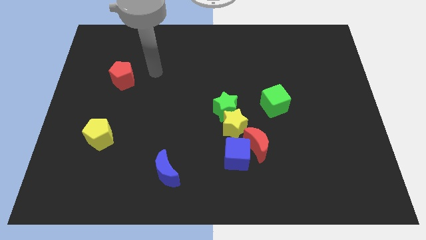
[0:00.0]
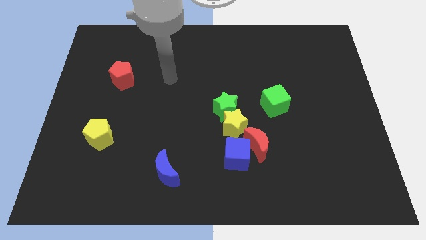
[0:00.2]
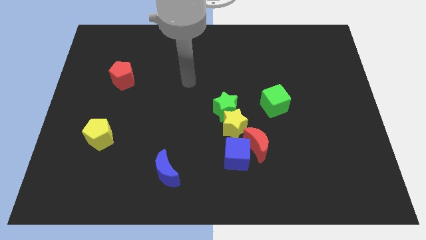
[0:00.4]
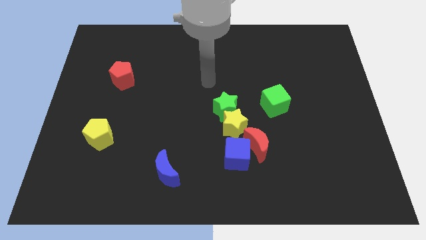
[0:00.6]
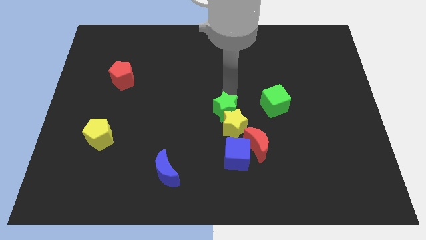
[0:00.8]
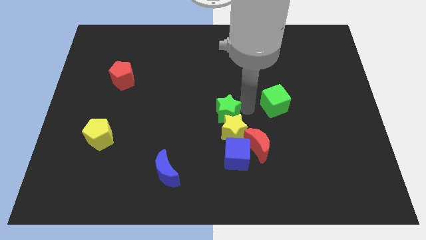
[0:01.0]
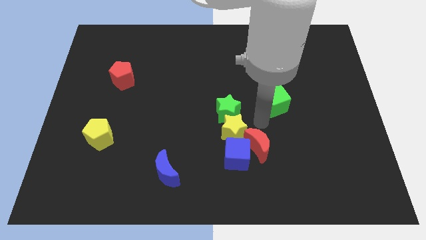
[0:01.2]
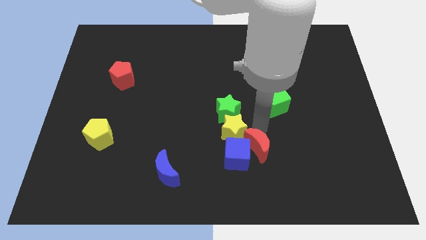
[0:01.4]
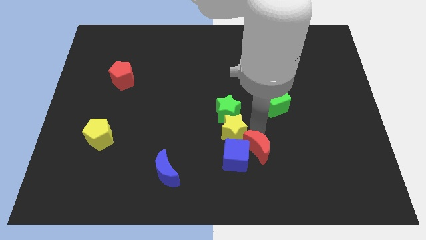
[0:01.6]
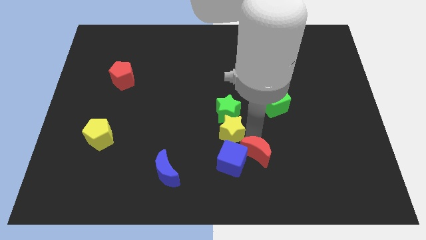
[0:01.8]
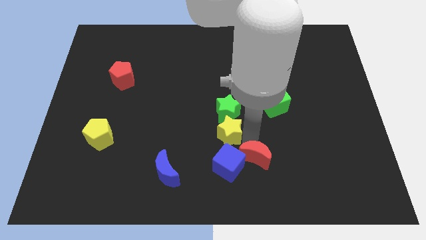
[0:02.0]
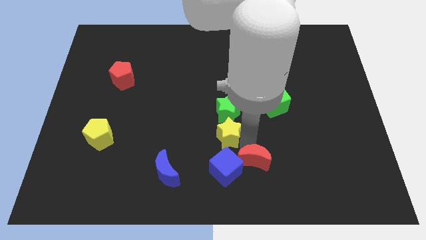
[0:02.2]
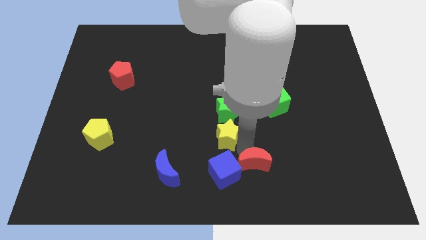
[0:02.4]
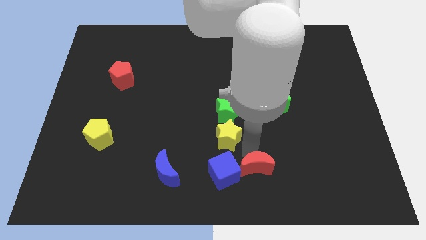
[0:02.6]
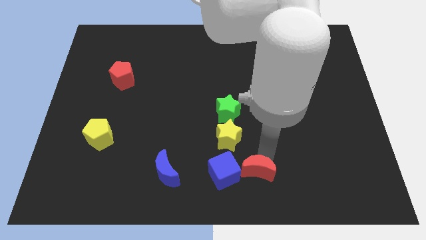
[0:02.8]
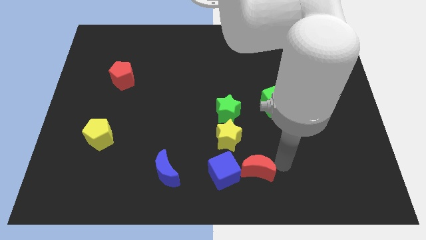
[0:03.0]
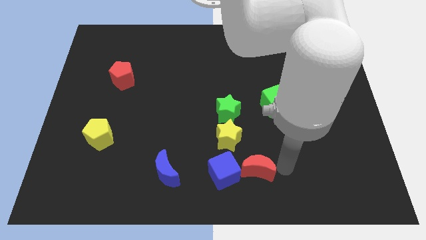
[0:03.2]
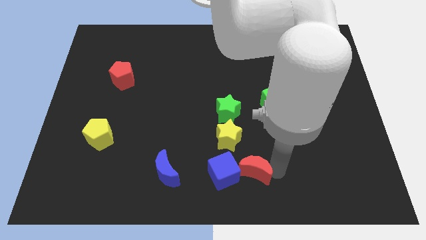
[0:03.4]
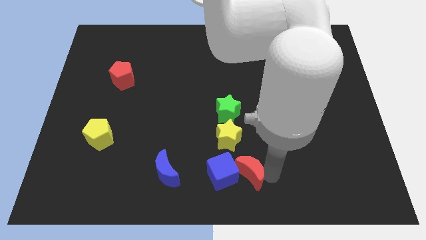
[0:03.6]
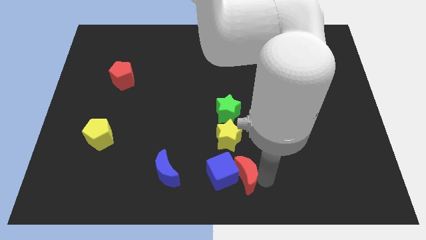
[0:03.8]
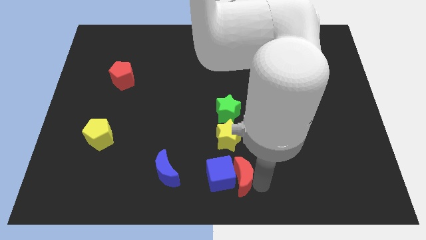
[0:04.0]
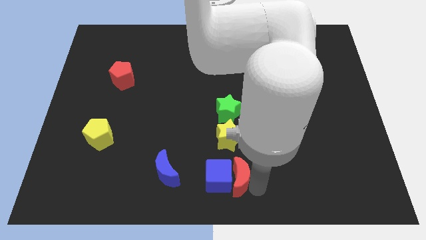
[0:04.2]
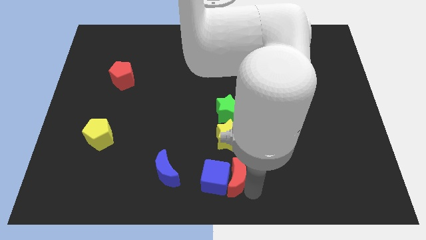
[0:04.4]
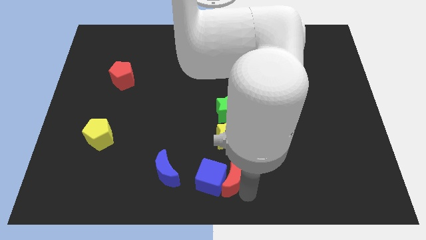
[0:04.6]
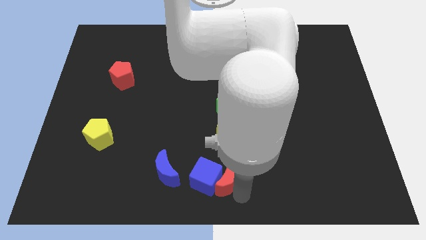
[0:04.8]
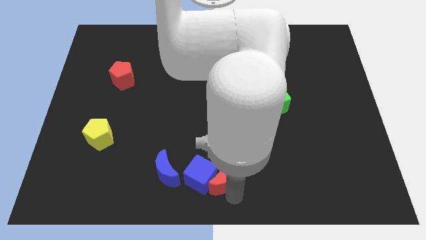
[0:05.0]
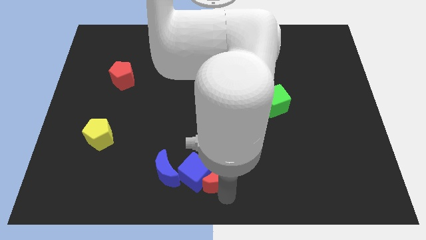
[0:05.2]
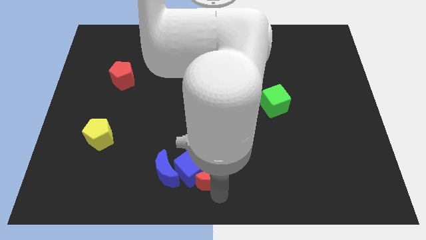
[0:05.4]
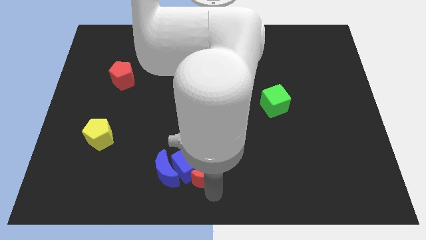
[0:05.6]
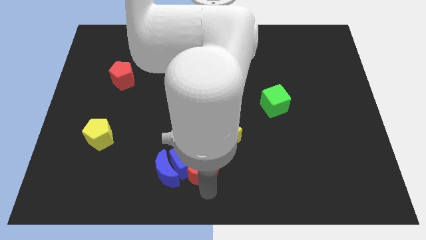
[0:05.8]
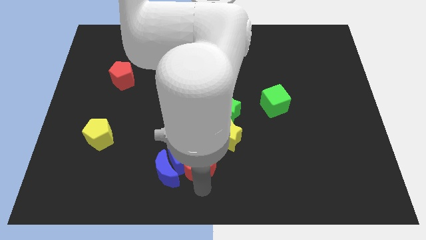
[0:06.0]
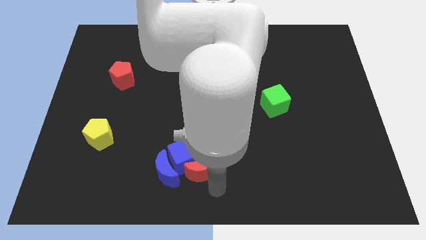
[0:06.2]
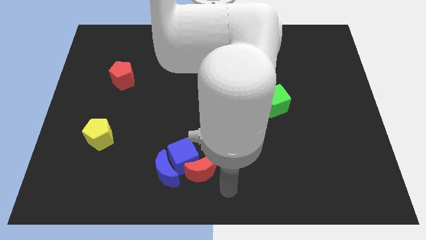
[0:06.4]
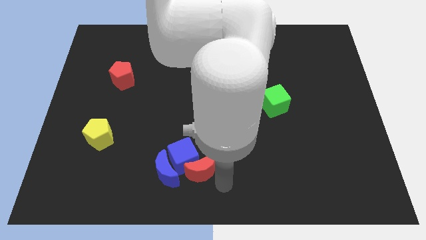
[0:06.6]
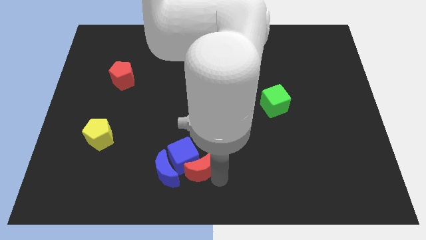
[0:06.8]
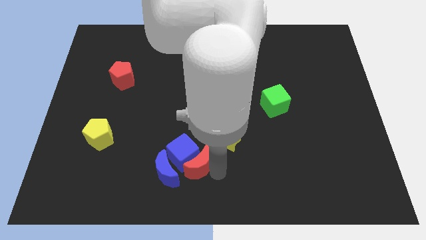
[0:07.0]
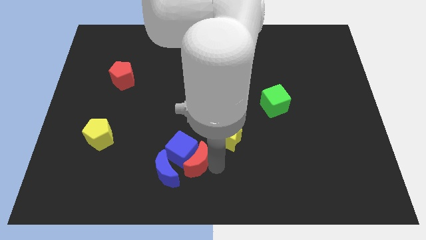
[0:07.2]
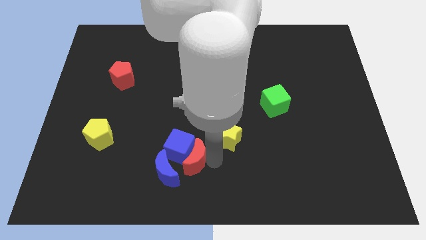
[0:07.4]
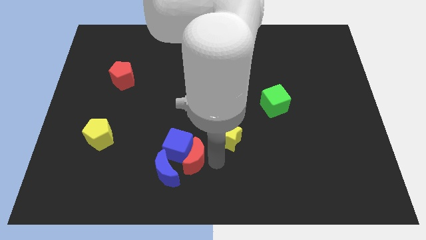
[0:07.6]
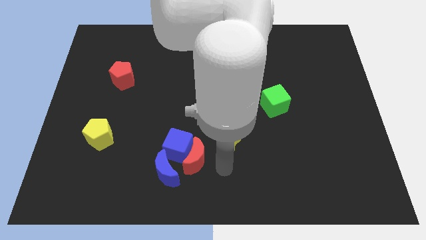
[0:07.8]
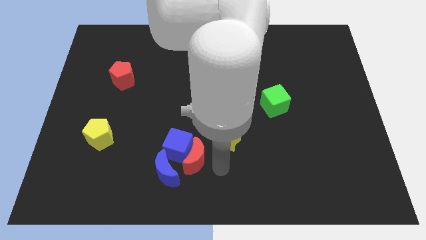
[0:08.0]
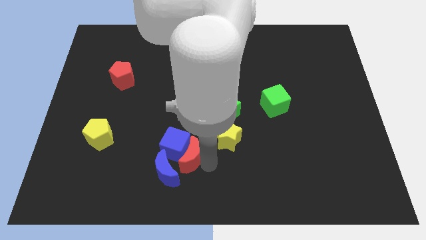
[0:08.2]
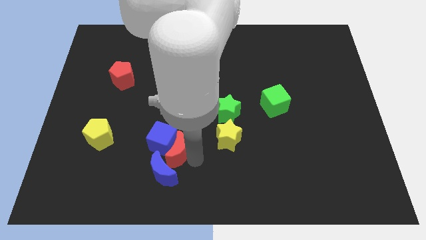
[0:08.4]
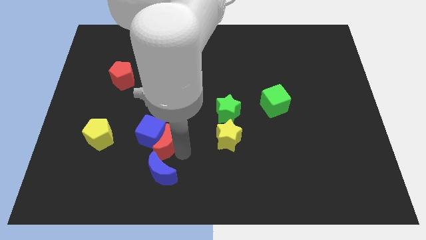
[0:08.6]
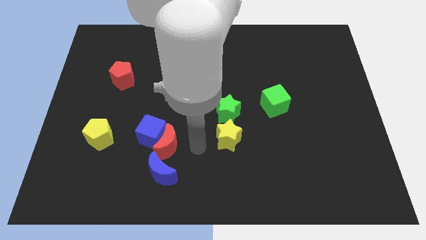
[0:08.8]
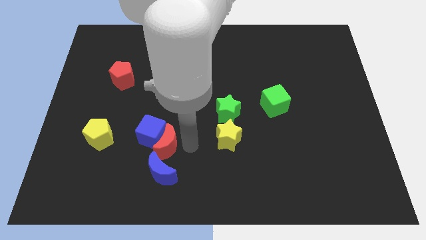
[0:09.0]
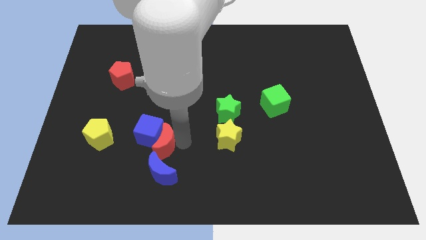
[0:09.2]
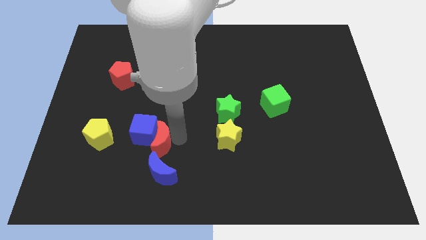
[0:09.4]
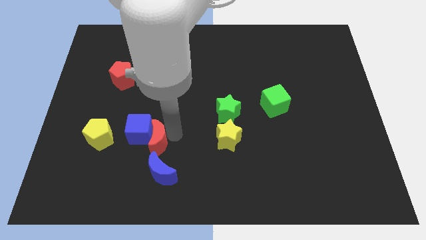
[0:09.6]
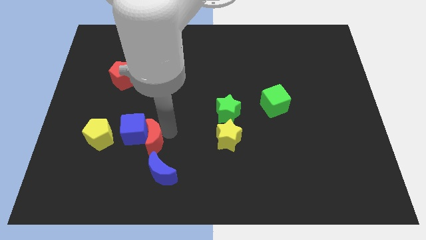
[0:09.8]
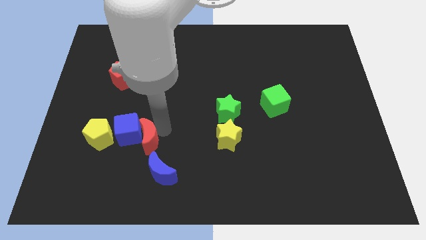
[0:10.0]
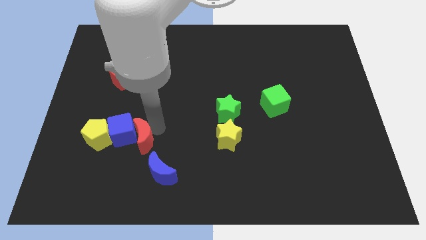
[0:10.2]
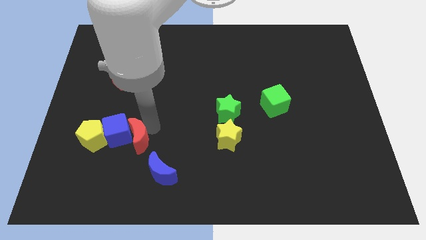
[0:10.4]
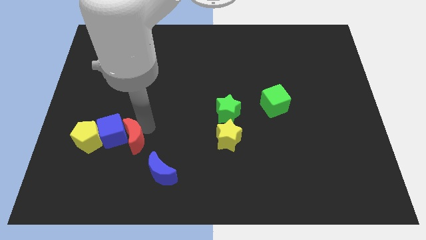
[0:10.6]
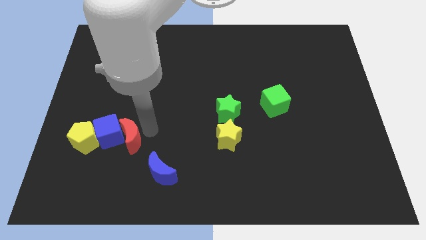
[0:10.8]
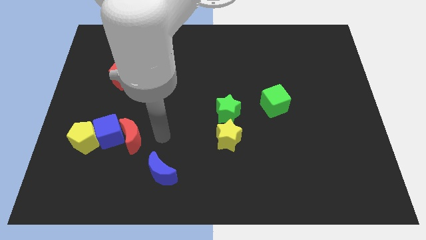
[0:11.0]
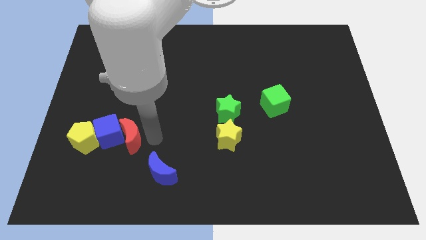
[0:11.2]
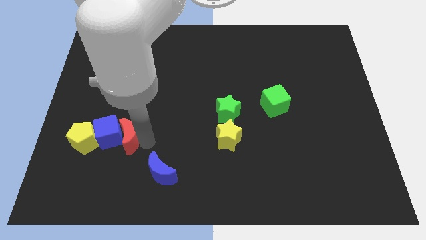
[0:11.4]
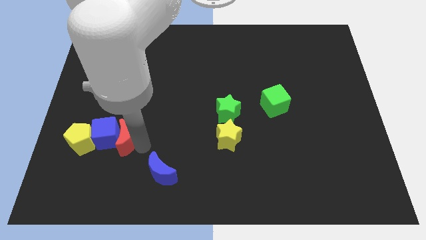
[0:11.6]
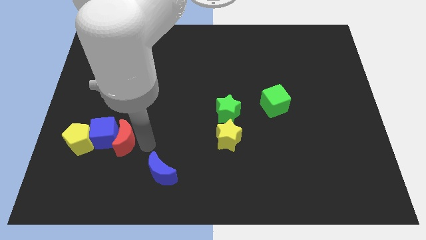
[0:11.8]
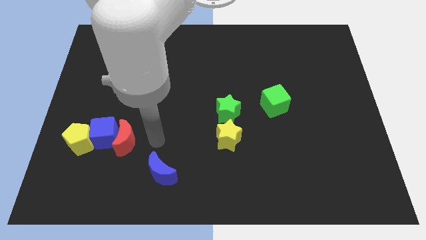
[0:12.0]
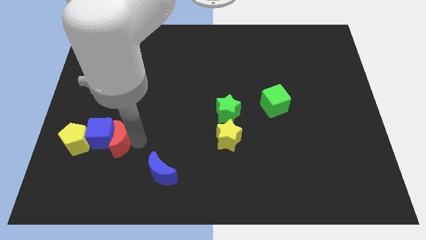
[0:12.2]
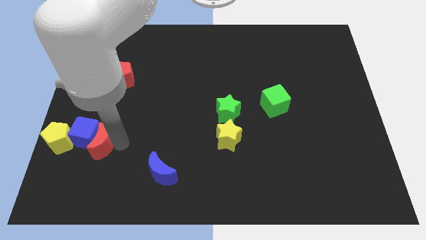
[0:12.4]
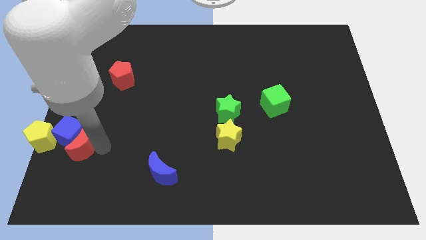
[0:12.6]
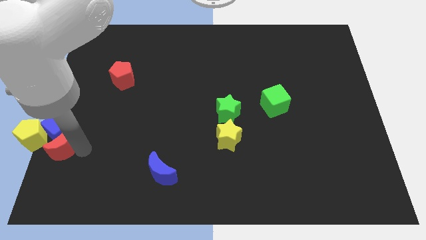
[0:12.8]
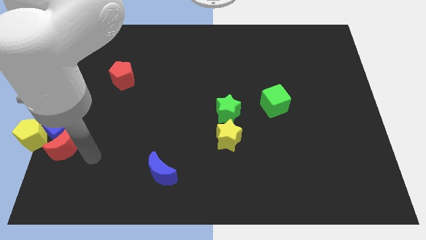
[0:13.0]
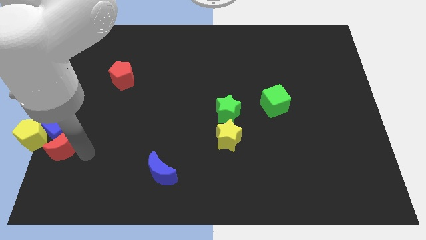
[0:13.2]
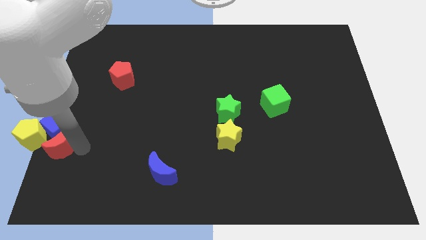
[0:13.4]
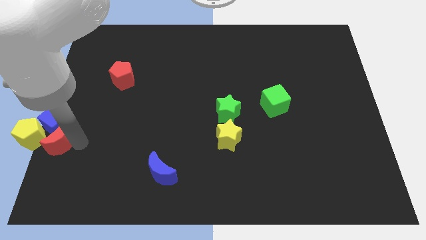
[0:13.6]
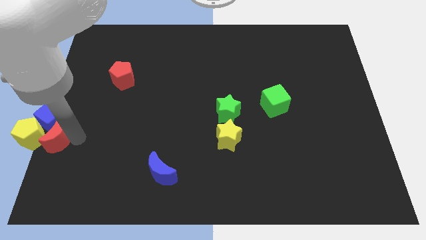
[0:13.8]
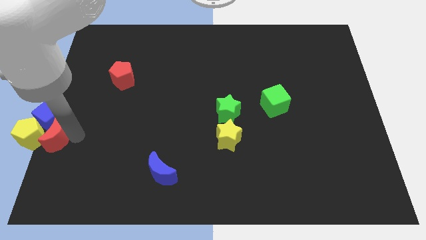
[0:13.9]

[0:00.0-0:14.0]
put the red moon close to the yellow pentagon
